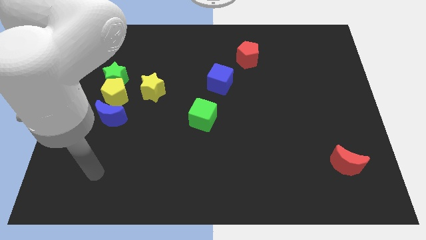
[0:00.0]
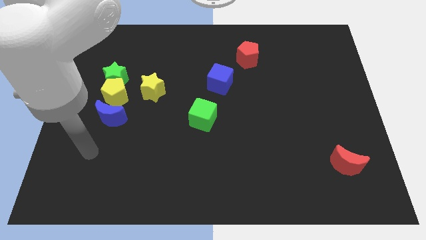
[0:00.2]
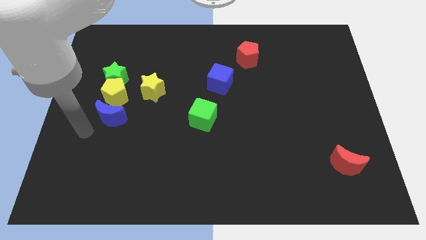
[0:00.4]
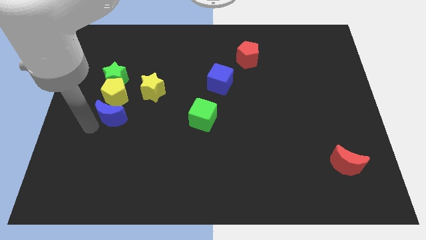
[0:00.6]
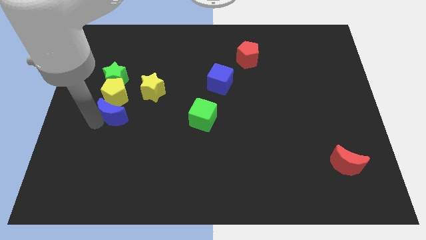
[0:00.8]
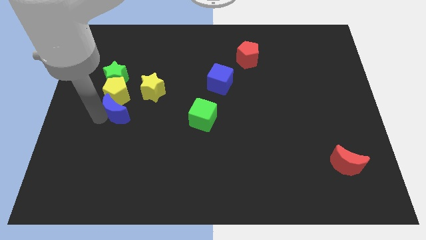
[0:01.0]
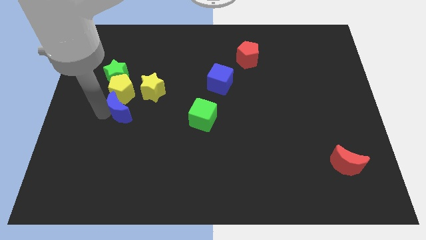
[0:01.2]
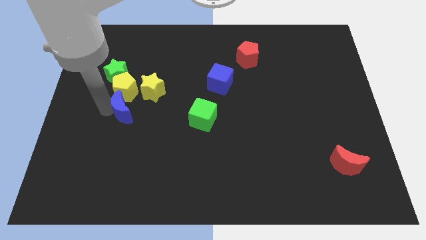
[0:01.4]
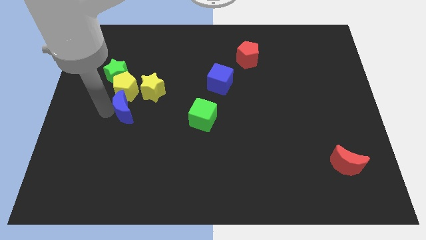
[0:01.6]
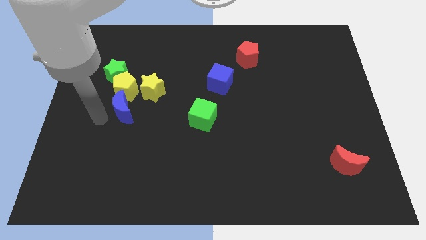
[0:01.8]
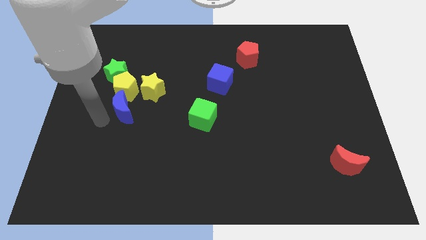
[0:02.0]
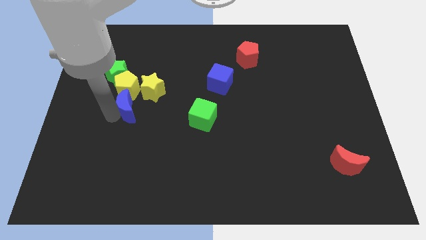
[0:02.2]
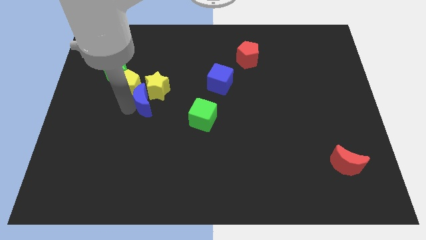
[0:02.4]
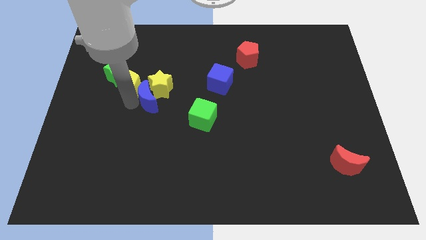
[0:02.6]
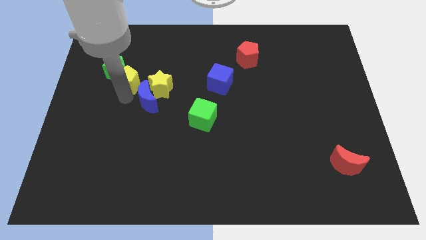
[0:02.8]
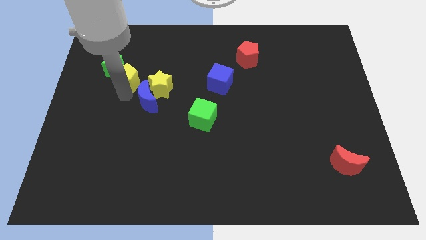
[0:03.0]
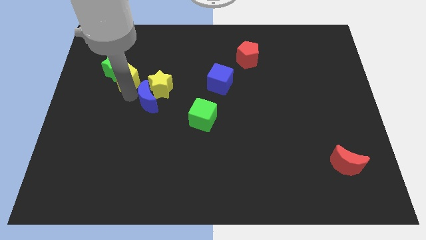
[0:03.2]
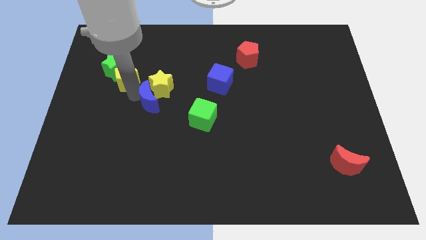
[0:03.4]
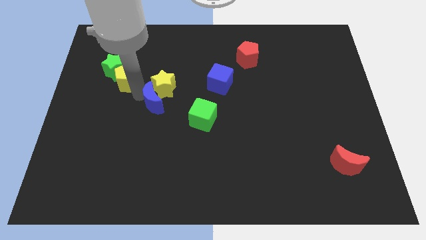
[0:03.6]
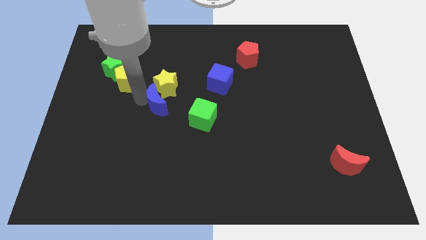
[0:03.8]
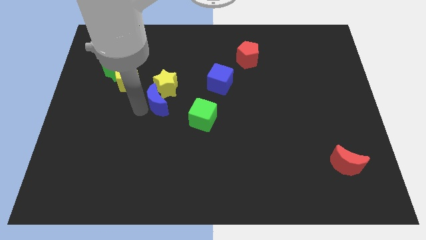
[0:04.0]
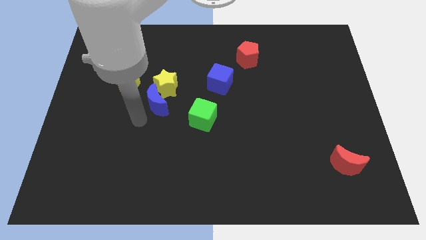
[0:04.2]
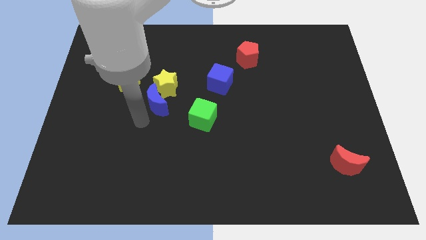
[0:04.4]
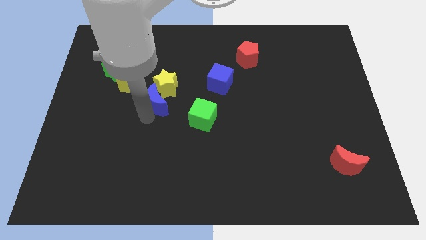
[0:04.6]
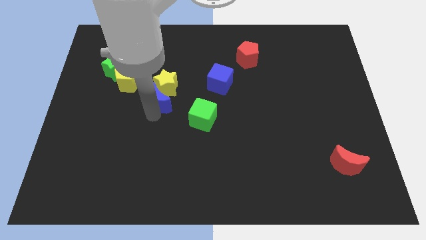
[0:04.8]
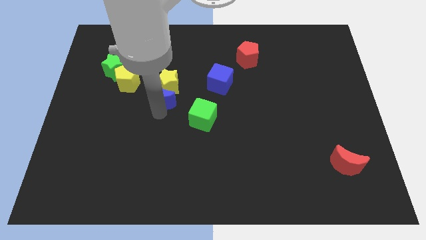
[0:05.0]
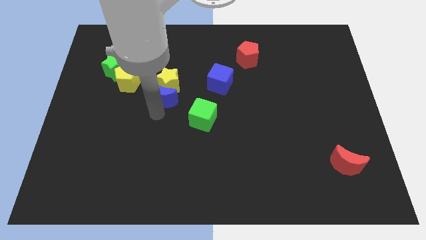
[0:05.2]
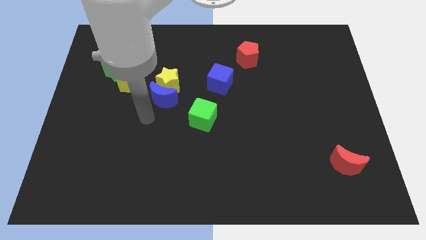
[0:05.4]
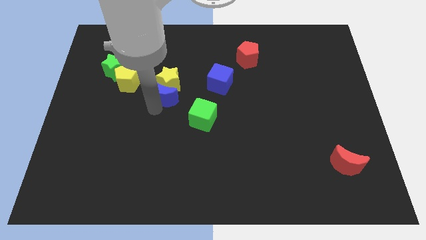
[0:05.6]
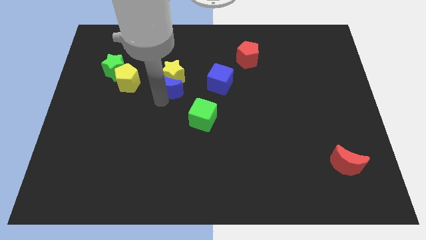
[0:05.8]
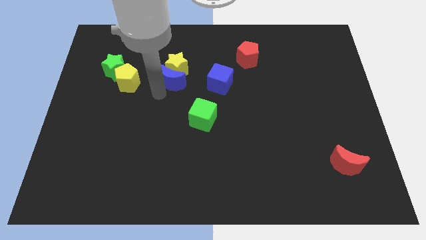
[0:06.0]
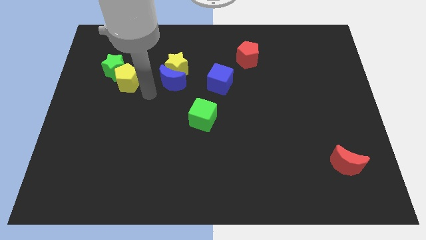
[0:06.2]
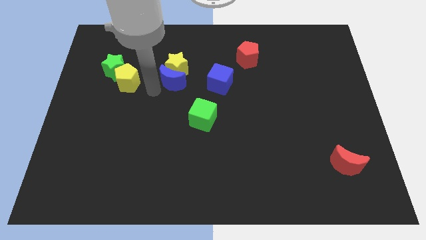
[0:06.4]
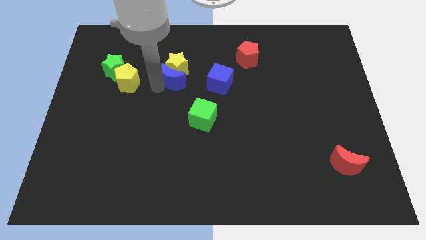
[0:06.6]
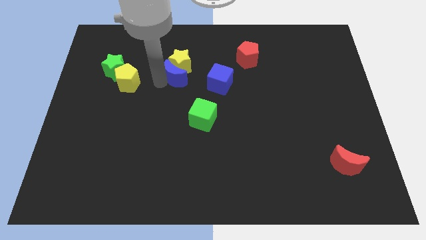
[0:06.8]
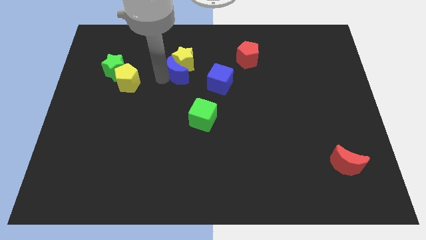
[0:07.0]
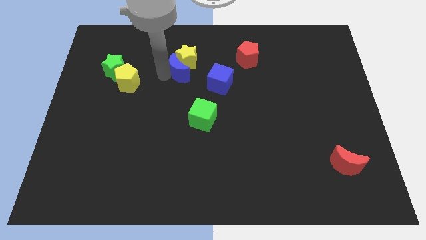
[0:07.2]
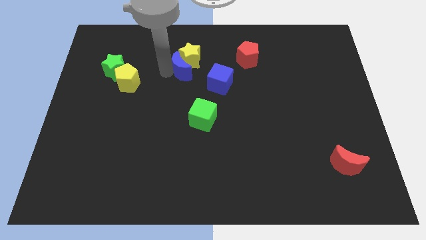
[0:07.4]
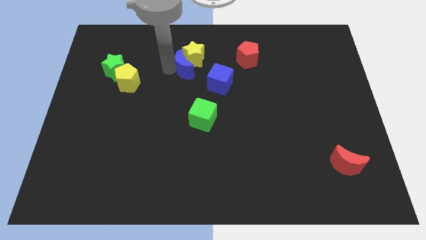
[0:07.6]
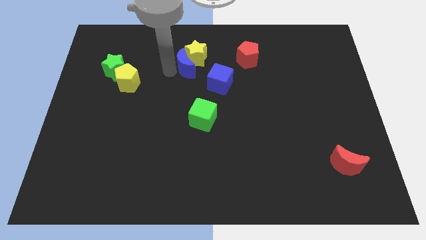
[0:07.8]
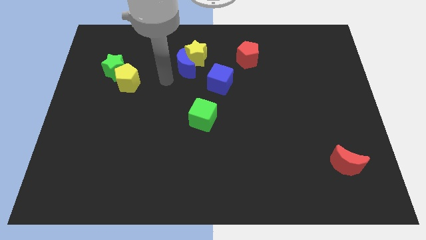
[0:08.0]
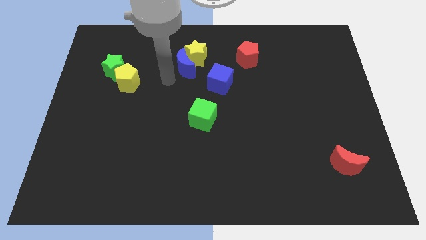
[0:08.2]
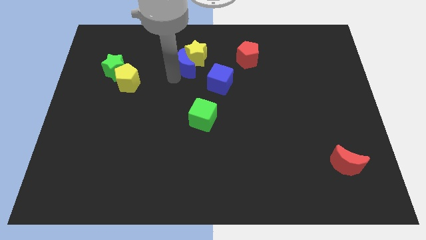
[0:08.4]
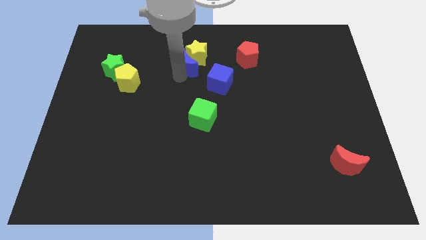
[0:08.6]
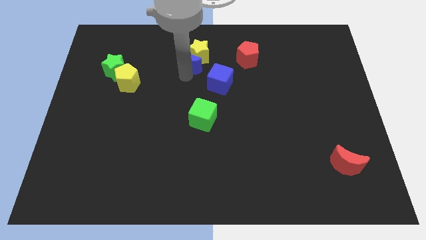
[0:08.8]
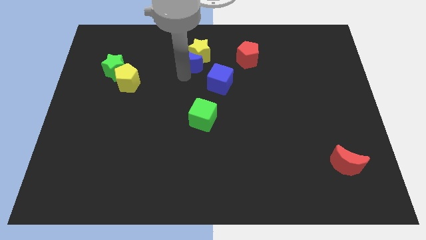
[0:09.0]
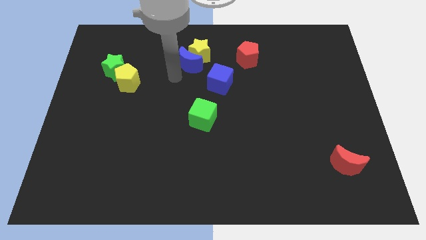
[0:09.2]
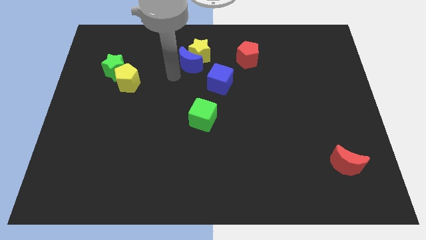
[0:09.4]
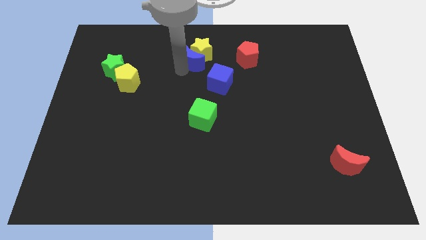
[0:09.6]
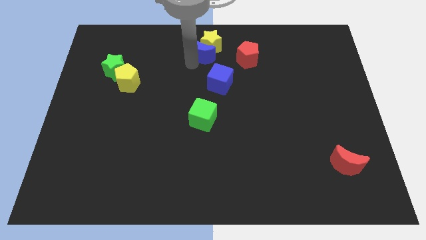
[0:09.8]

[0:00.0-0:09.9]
slide the blue moon to the top

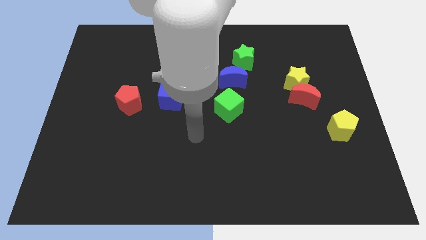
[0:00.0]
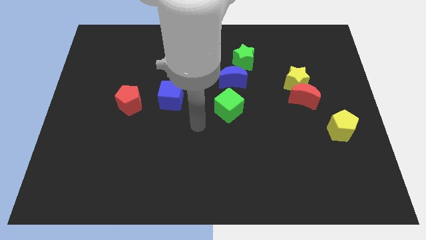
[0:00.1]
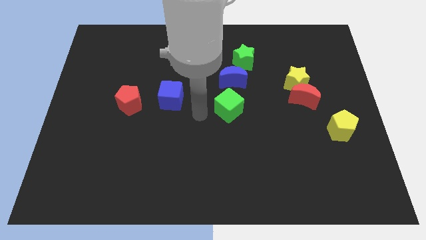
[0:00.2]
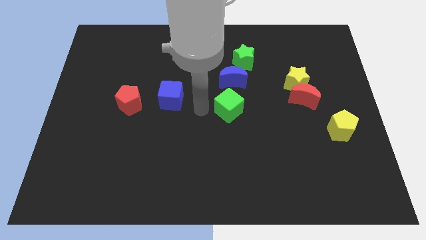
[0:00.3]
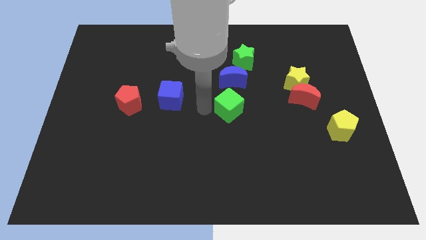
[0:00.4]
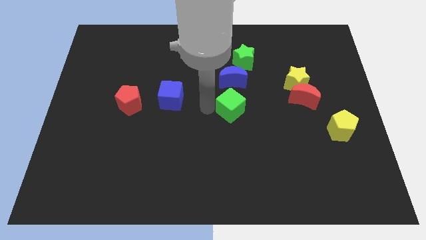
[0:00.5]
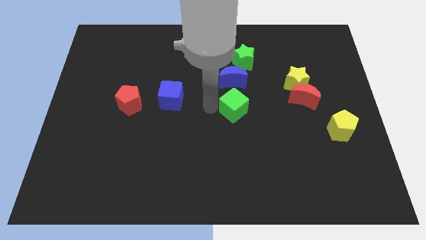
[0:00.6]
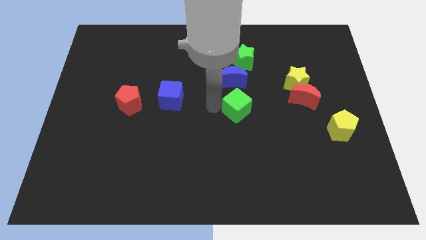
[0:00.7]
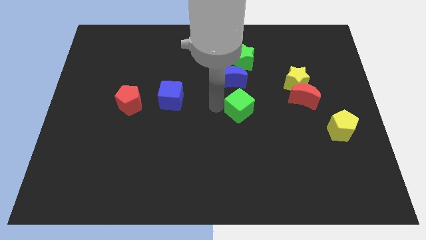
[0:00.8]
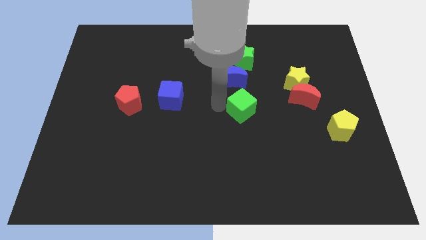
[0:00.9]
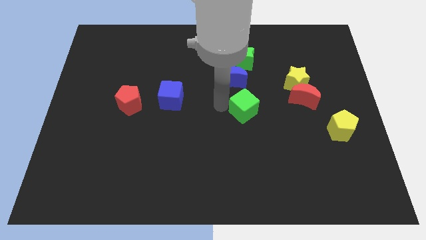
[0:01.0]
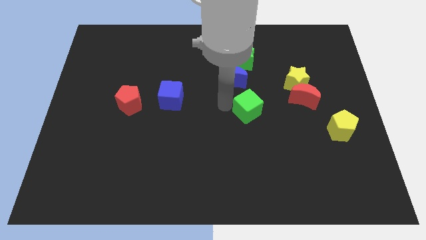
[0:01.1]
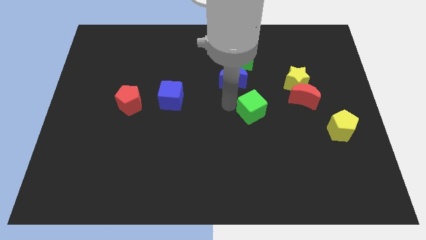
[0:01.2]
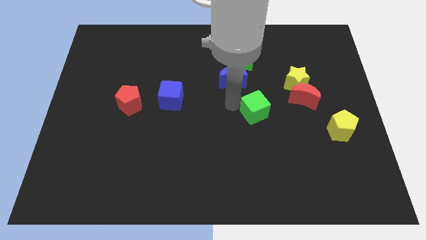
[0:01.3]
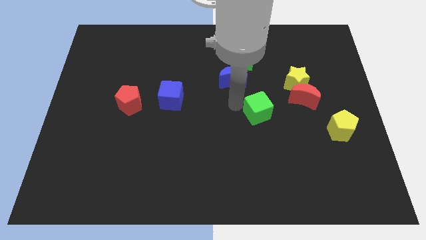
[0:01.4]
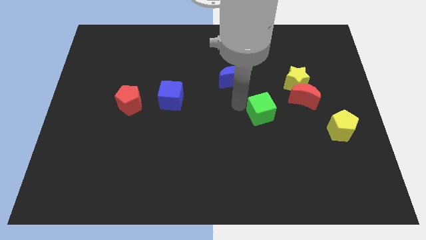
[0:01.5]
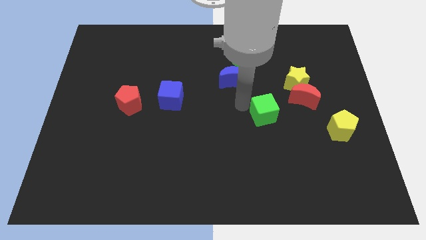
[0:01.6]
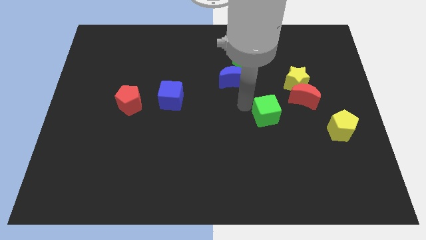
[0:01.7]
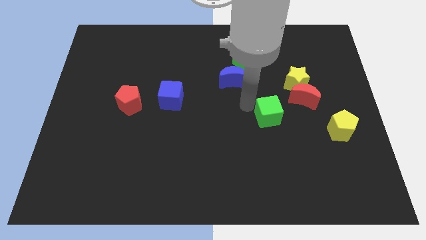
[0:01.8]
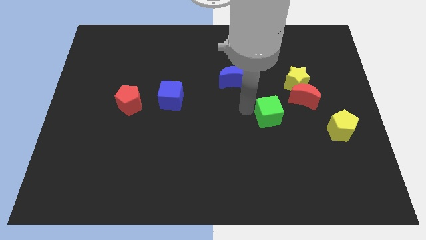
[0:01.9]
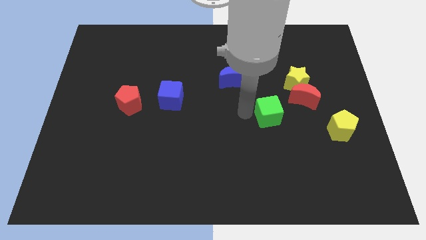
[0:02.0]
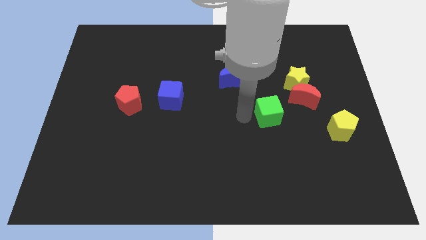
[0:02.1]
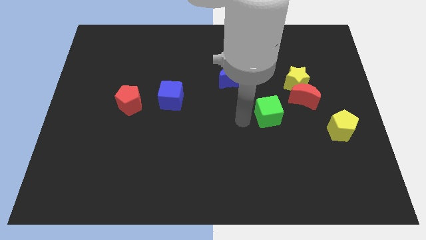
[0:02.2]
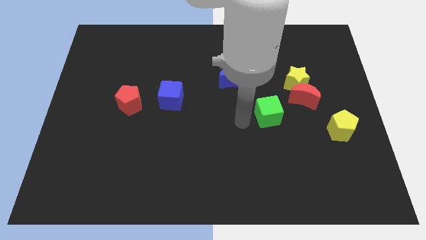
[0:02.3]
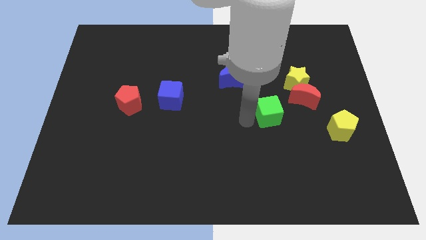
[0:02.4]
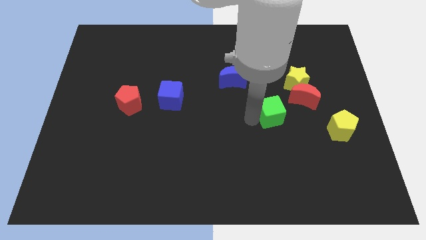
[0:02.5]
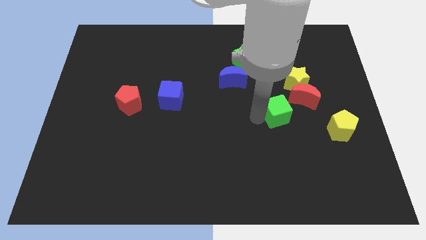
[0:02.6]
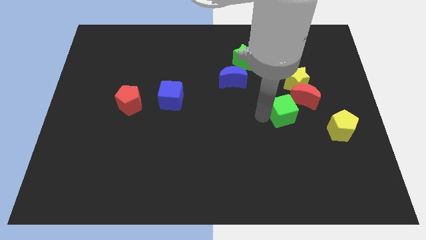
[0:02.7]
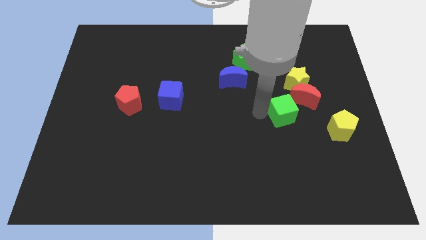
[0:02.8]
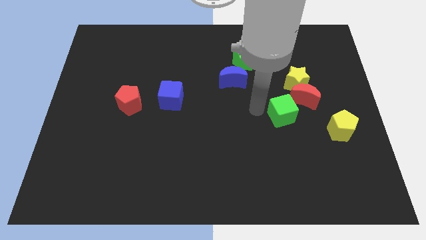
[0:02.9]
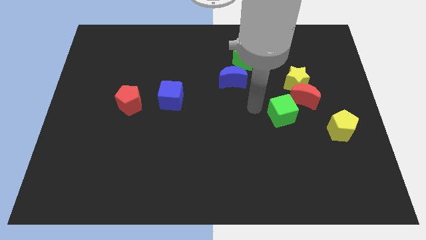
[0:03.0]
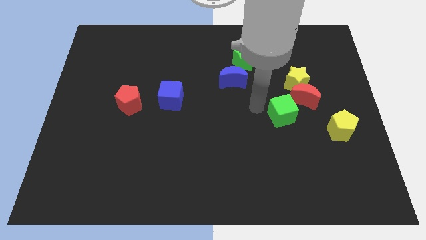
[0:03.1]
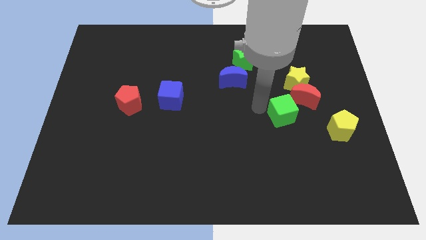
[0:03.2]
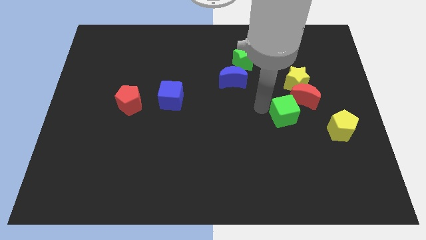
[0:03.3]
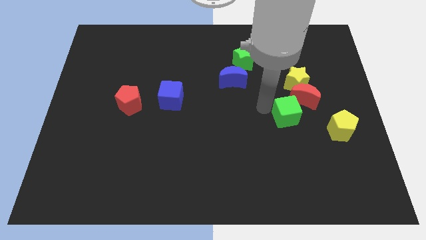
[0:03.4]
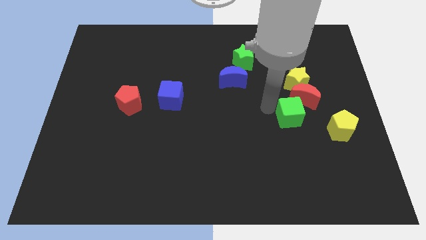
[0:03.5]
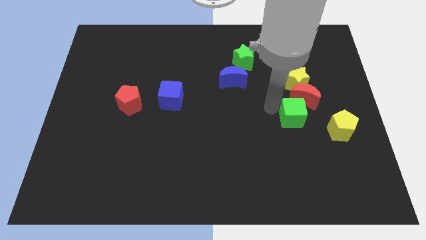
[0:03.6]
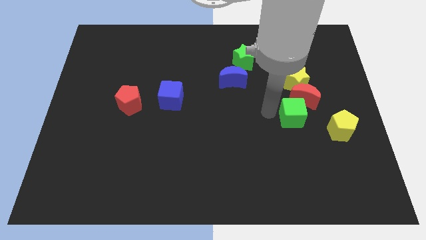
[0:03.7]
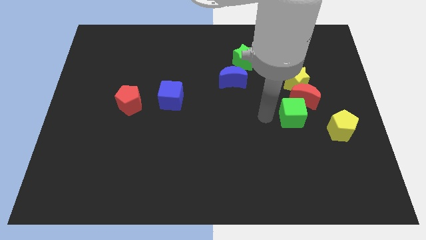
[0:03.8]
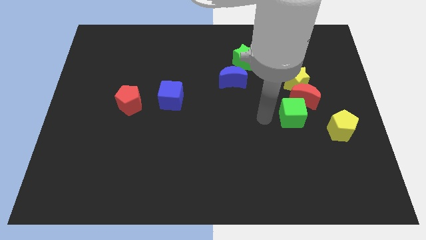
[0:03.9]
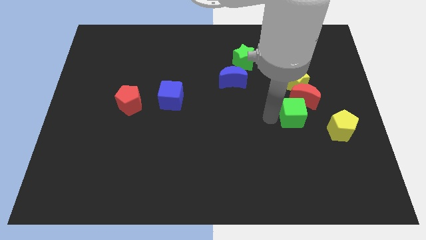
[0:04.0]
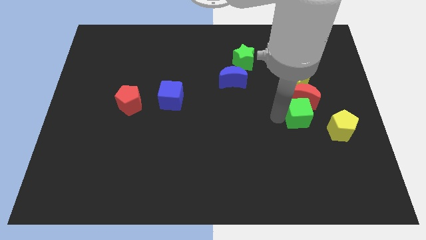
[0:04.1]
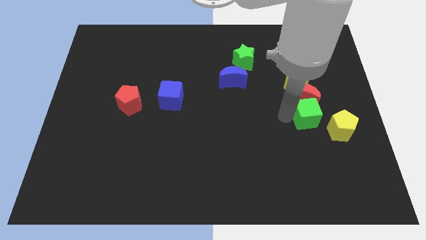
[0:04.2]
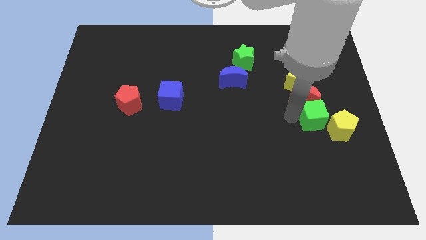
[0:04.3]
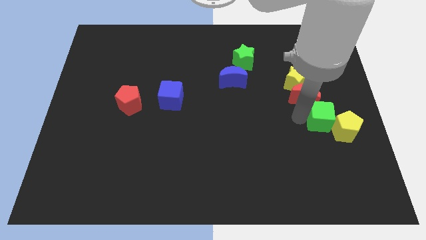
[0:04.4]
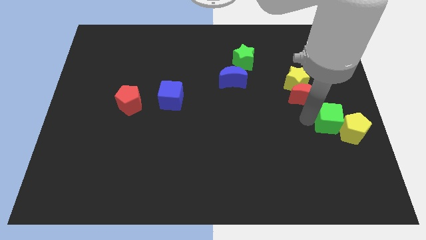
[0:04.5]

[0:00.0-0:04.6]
slide the green cube to the right side of the board
